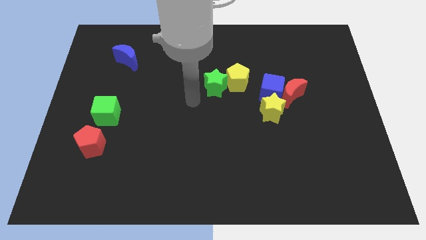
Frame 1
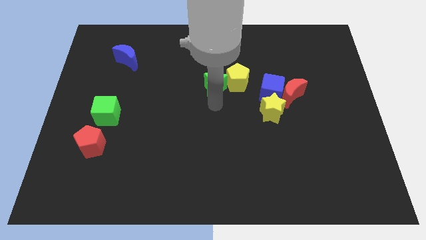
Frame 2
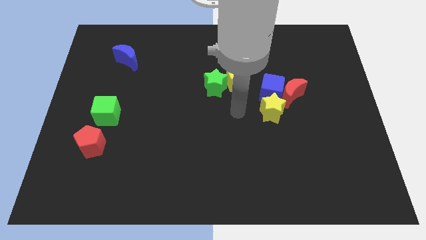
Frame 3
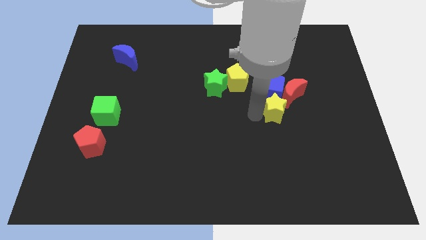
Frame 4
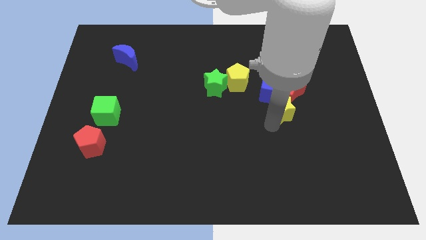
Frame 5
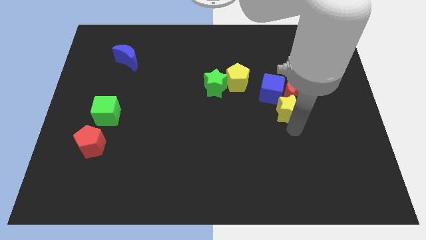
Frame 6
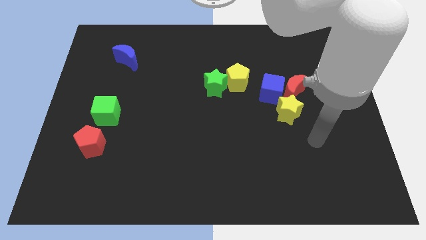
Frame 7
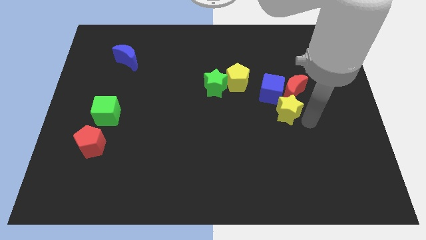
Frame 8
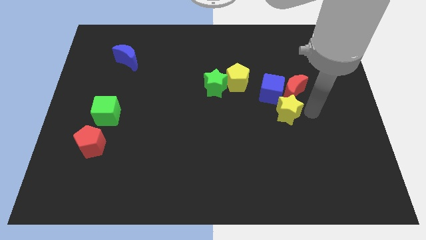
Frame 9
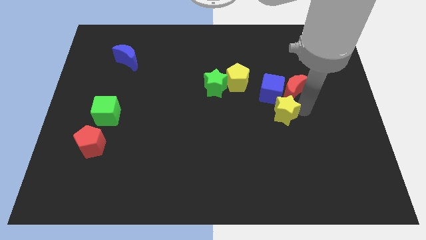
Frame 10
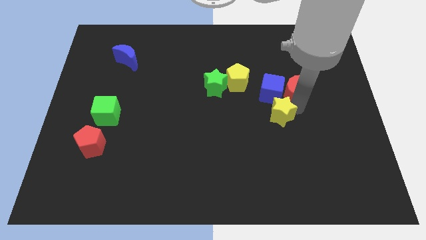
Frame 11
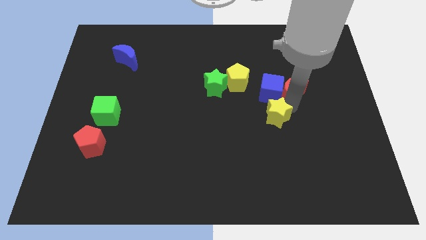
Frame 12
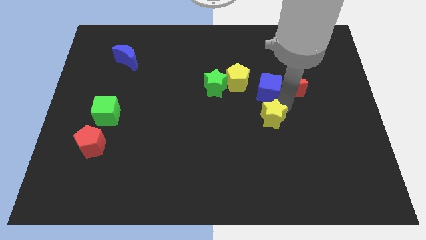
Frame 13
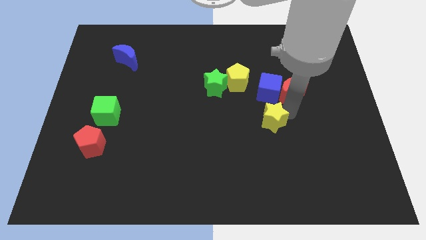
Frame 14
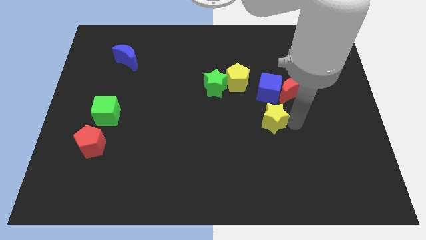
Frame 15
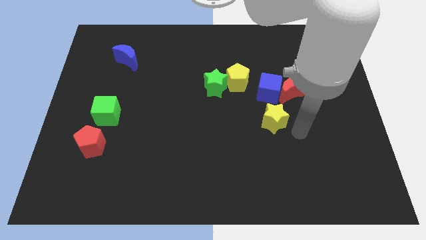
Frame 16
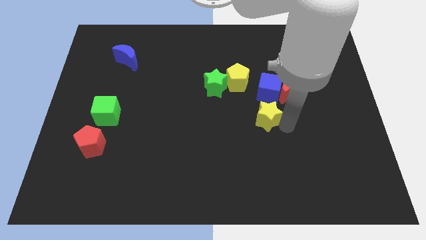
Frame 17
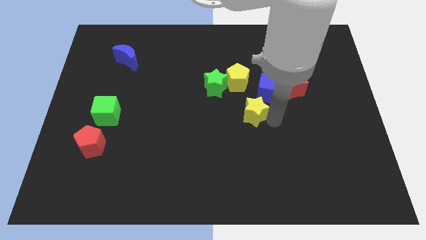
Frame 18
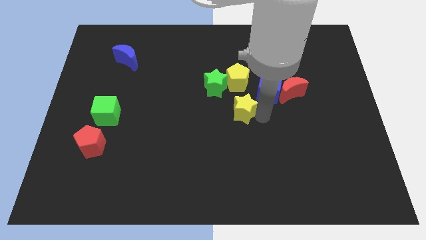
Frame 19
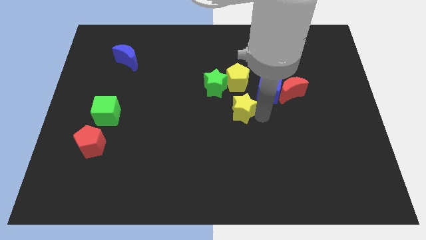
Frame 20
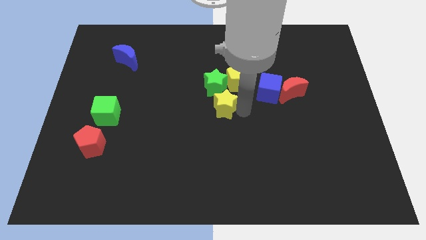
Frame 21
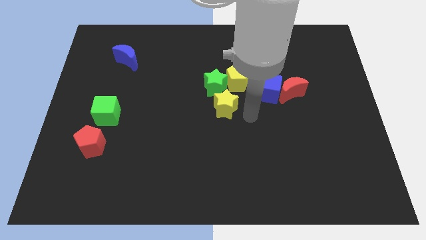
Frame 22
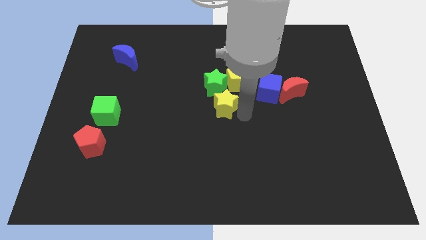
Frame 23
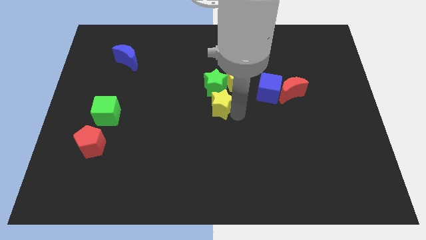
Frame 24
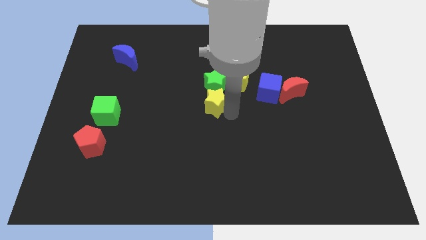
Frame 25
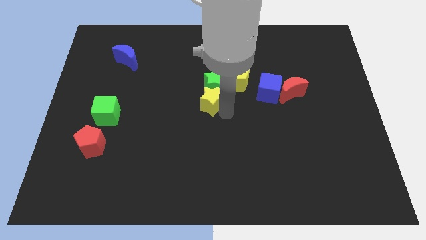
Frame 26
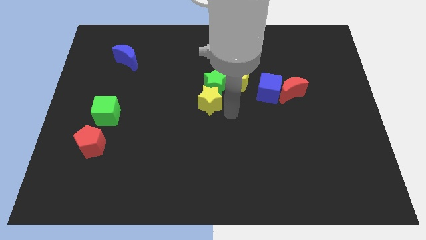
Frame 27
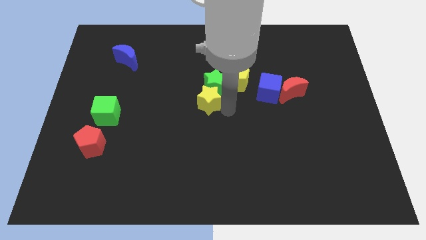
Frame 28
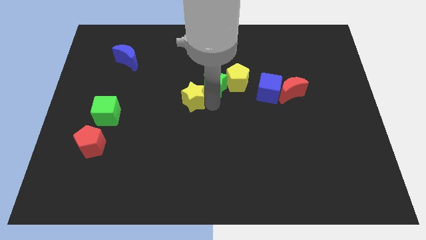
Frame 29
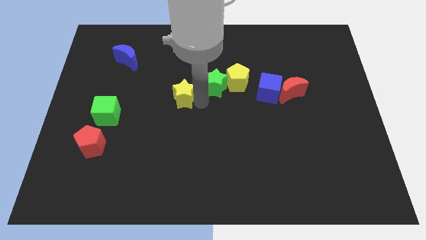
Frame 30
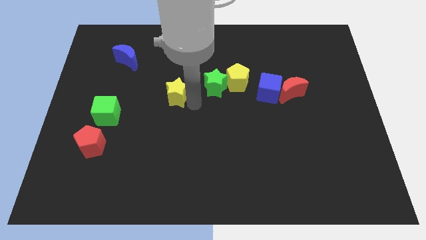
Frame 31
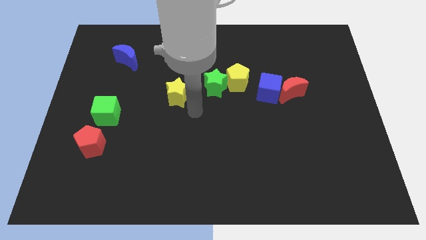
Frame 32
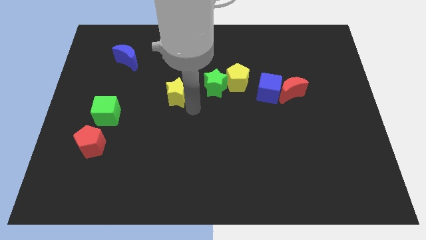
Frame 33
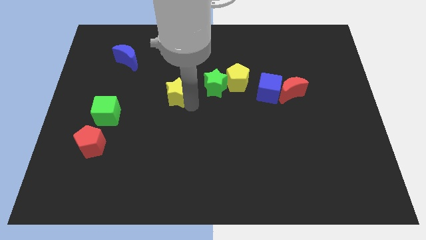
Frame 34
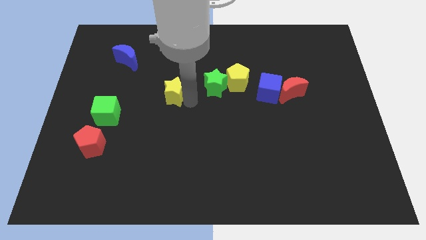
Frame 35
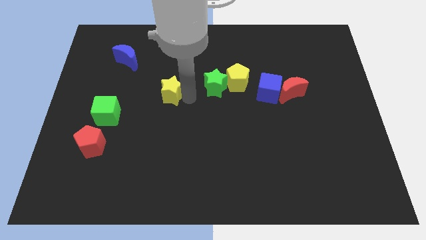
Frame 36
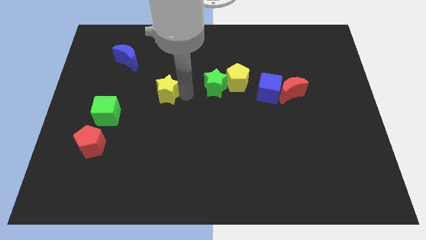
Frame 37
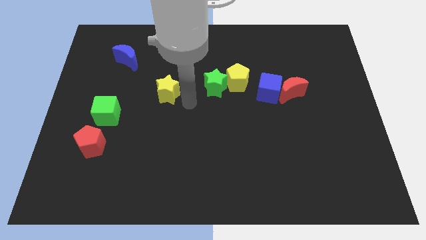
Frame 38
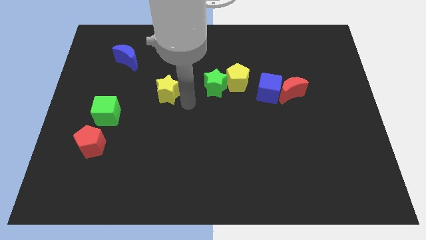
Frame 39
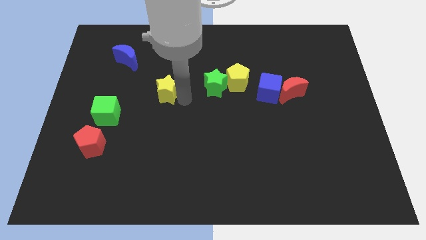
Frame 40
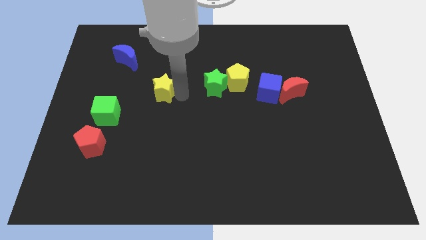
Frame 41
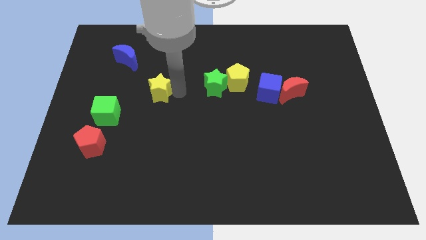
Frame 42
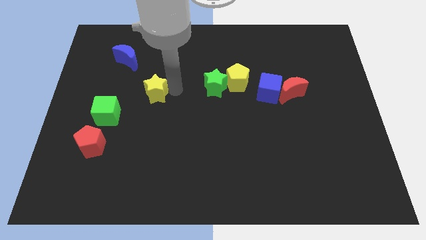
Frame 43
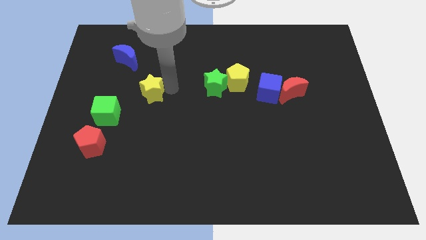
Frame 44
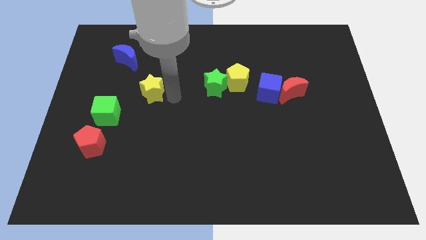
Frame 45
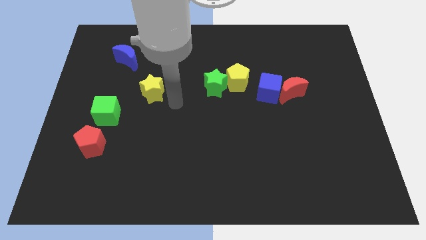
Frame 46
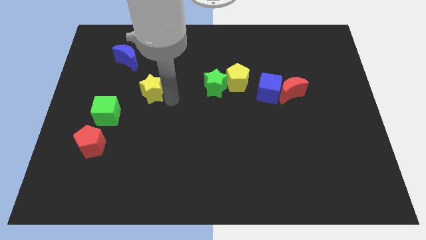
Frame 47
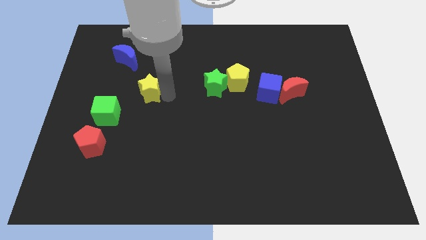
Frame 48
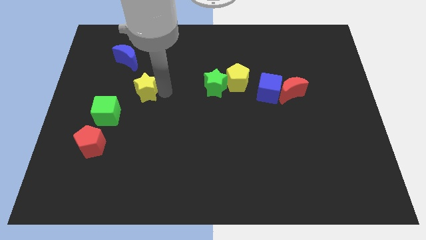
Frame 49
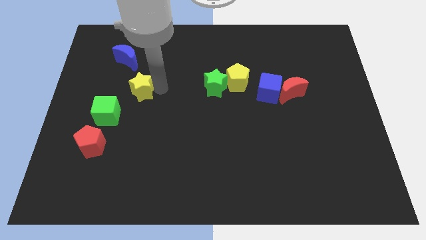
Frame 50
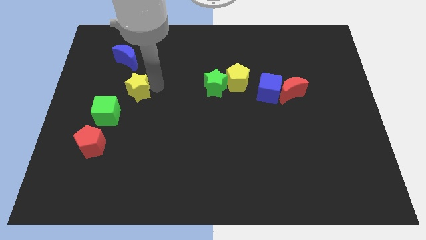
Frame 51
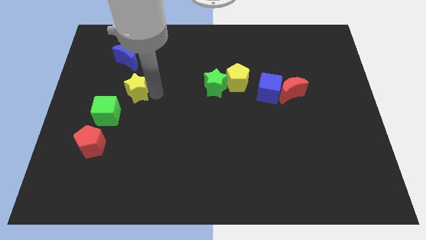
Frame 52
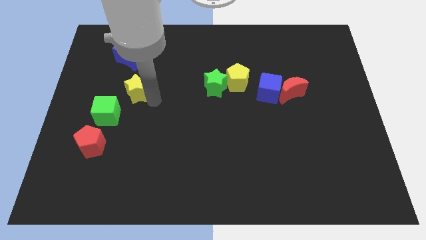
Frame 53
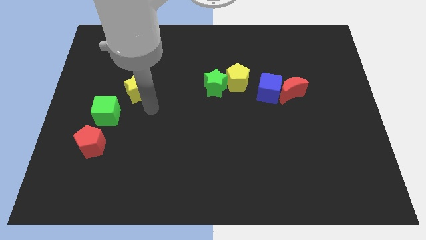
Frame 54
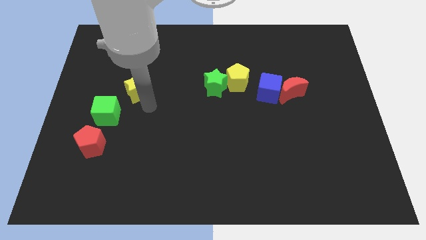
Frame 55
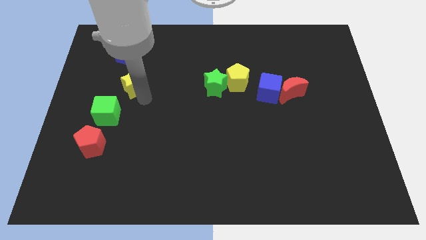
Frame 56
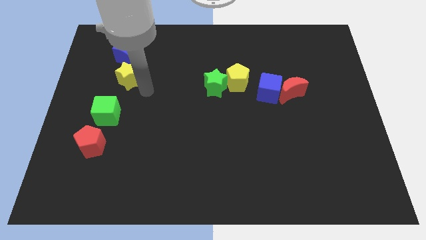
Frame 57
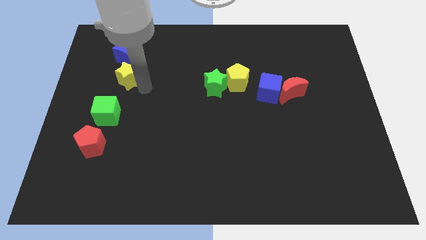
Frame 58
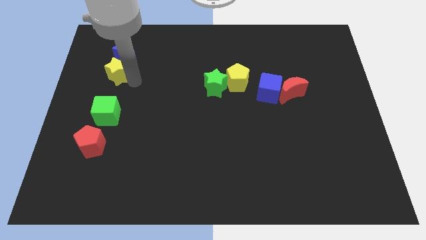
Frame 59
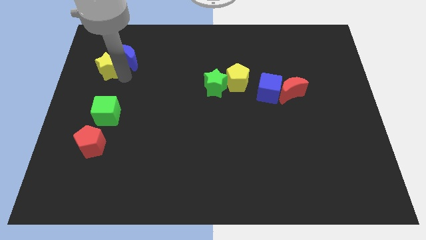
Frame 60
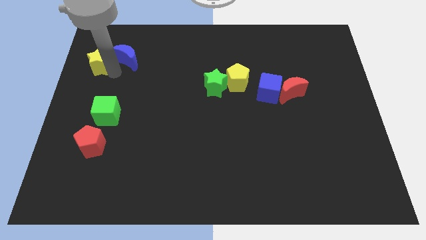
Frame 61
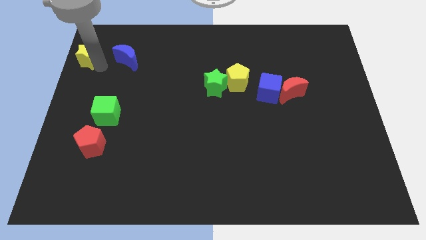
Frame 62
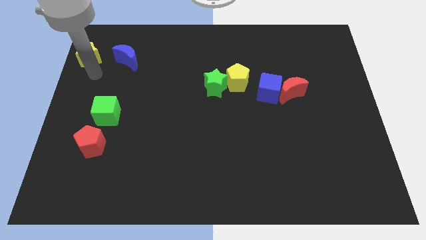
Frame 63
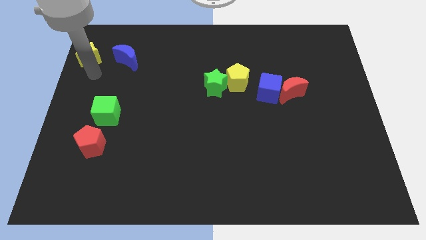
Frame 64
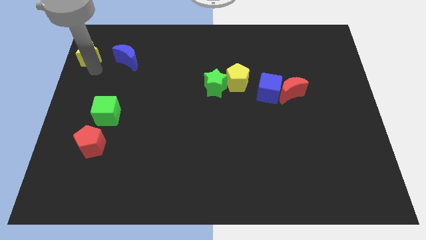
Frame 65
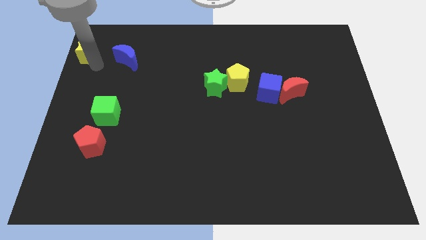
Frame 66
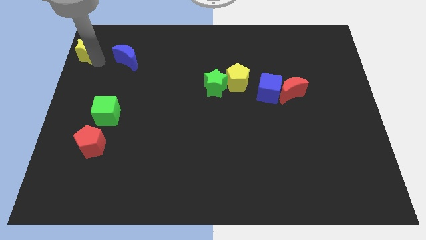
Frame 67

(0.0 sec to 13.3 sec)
put the yellow star to the upper left corner
